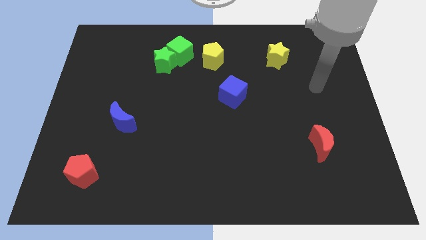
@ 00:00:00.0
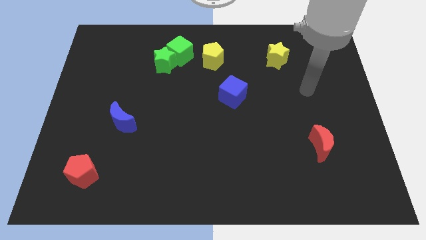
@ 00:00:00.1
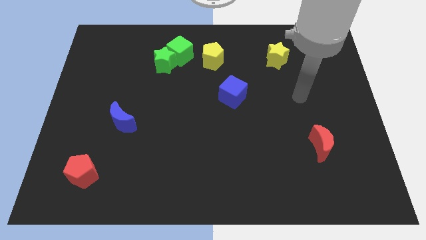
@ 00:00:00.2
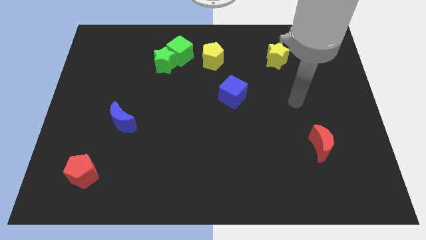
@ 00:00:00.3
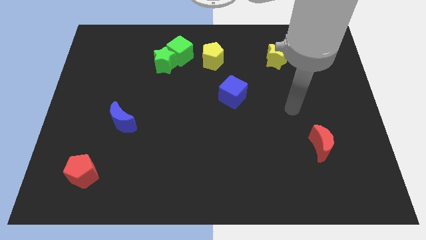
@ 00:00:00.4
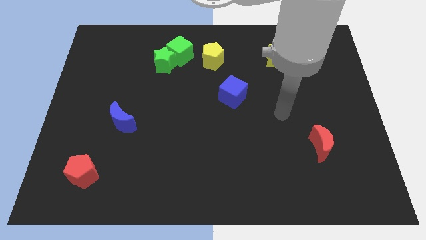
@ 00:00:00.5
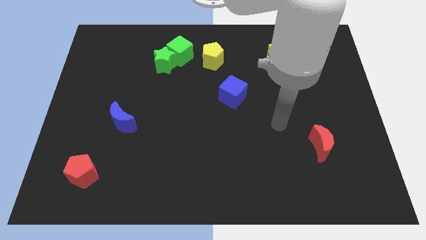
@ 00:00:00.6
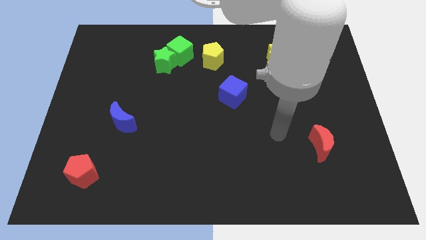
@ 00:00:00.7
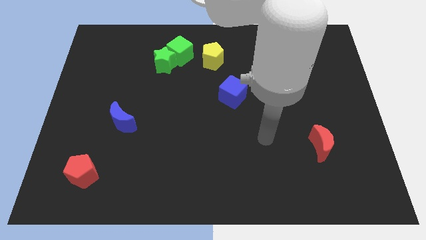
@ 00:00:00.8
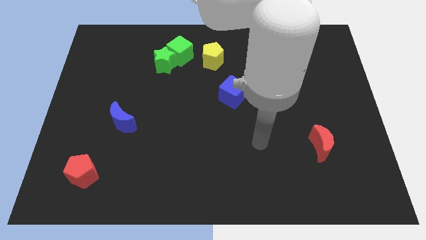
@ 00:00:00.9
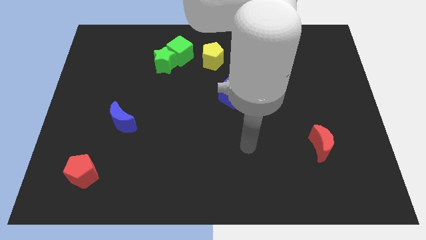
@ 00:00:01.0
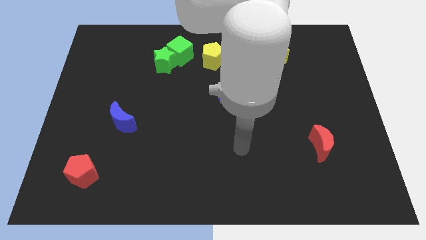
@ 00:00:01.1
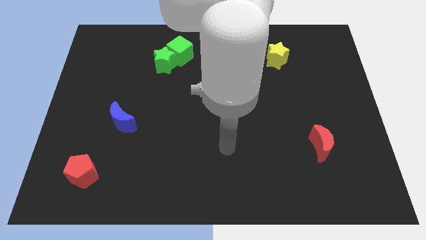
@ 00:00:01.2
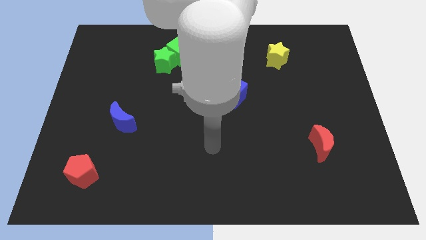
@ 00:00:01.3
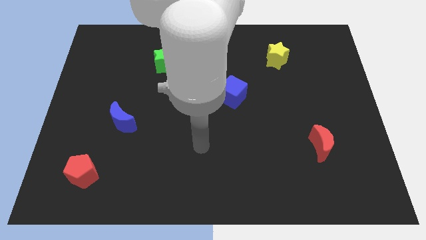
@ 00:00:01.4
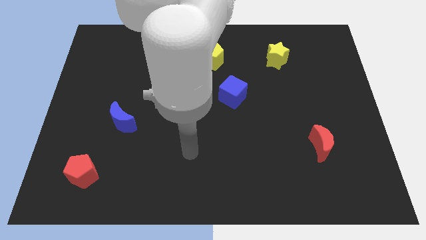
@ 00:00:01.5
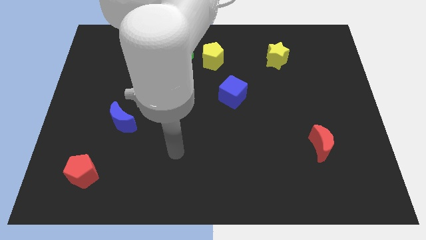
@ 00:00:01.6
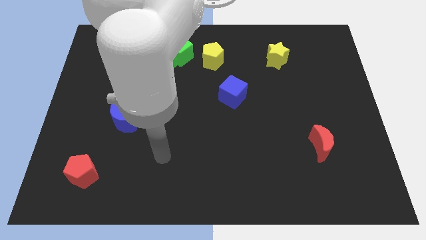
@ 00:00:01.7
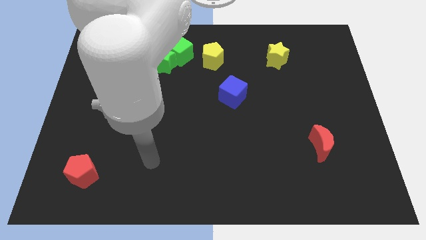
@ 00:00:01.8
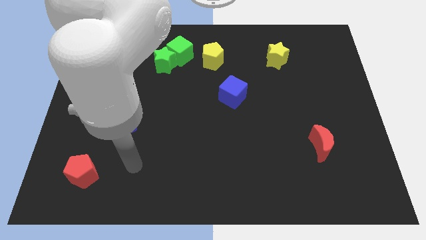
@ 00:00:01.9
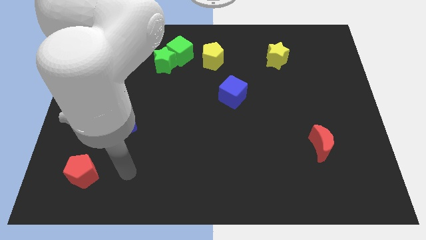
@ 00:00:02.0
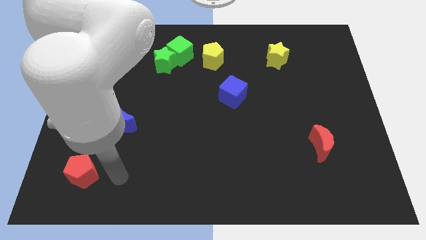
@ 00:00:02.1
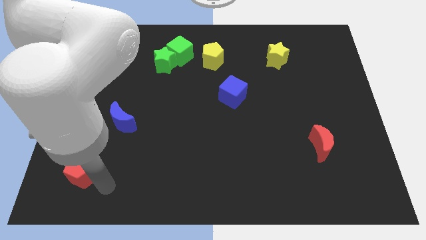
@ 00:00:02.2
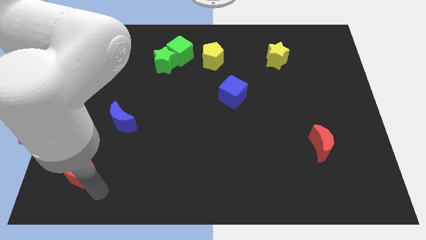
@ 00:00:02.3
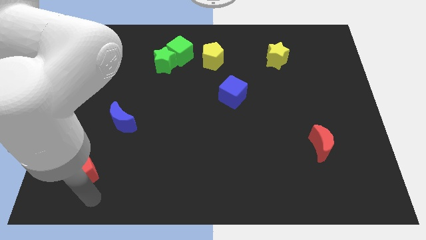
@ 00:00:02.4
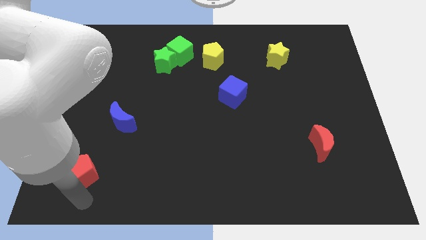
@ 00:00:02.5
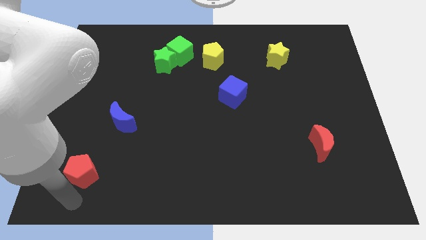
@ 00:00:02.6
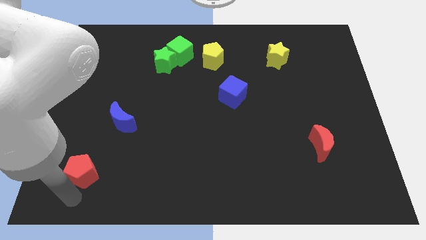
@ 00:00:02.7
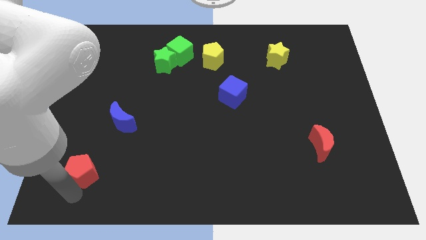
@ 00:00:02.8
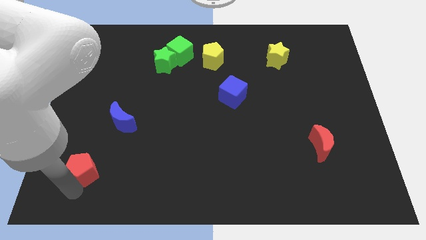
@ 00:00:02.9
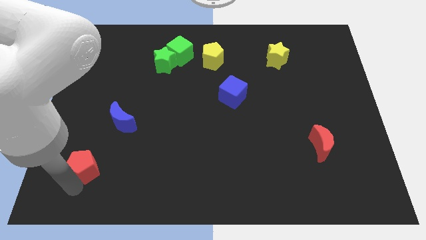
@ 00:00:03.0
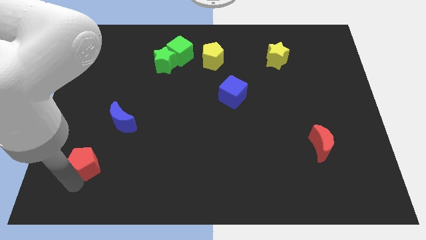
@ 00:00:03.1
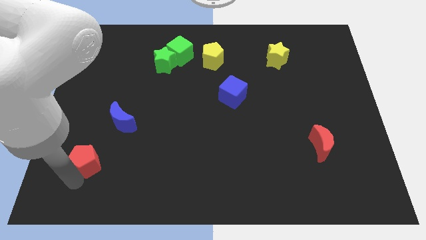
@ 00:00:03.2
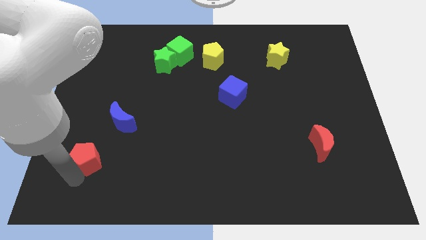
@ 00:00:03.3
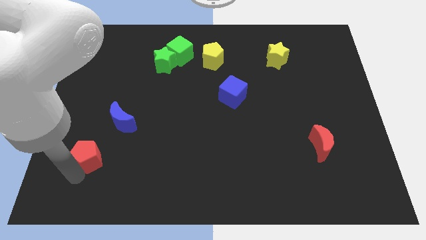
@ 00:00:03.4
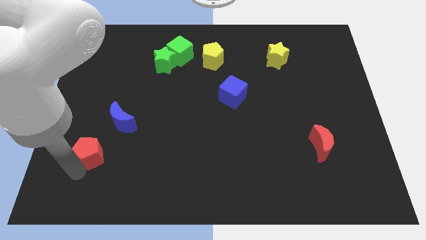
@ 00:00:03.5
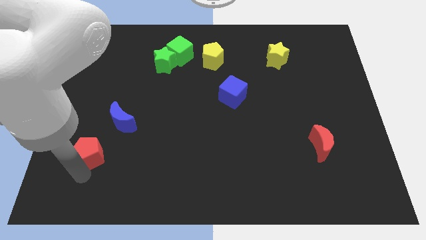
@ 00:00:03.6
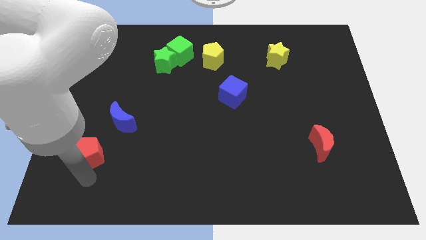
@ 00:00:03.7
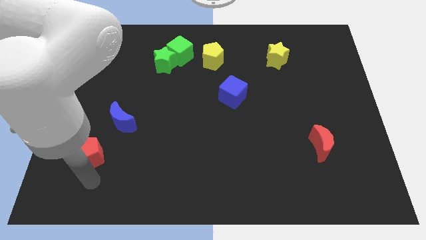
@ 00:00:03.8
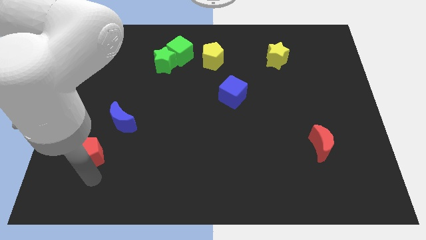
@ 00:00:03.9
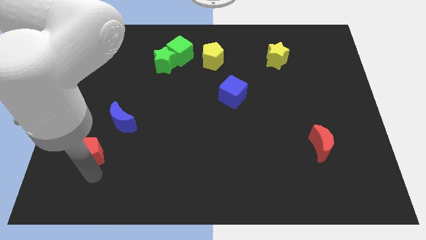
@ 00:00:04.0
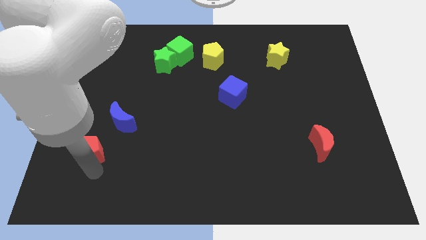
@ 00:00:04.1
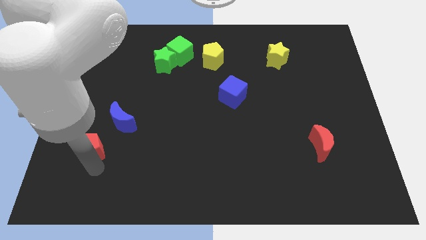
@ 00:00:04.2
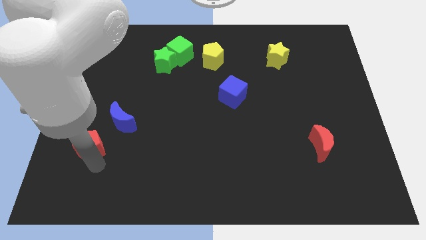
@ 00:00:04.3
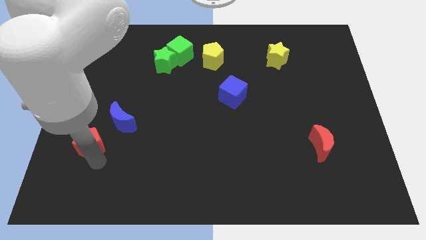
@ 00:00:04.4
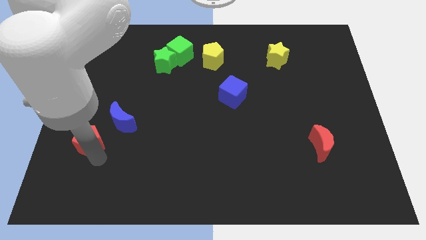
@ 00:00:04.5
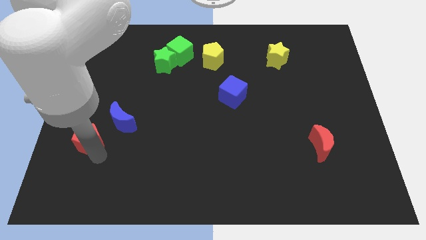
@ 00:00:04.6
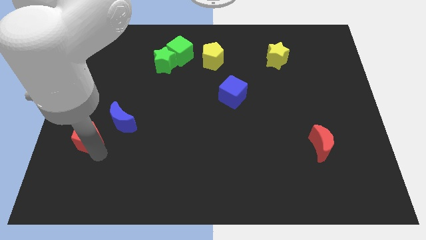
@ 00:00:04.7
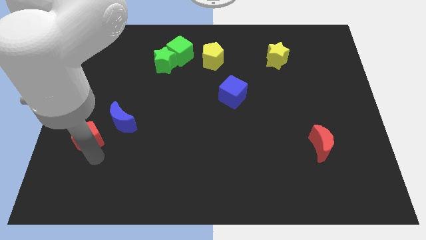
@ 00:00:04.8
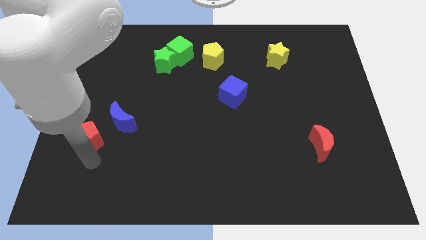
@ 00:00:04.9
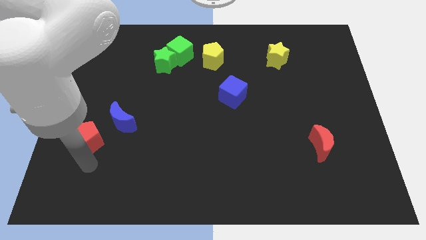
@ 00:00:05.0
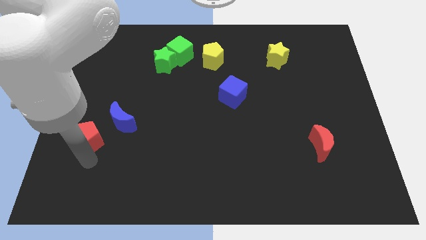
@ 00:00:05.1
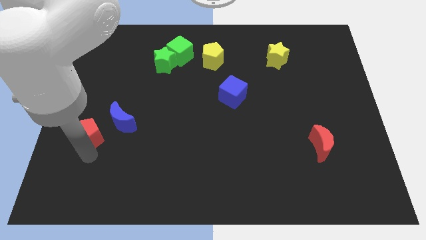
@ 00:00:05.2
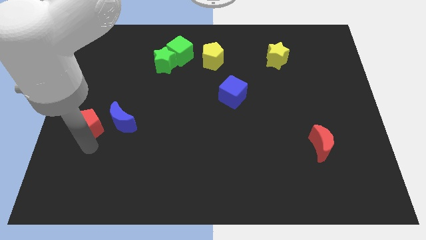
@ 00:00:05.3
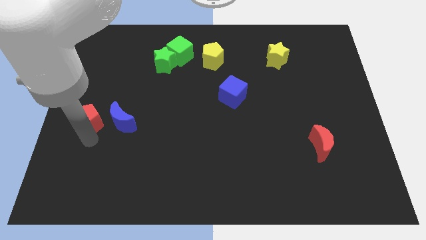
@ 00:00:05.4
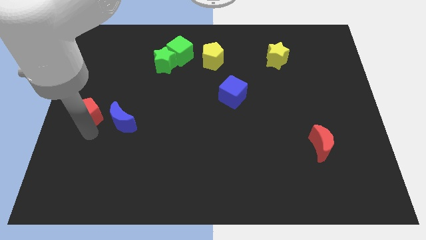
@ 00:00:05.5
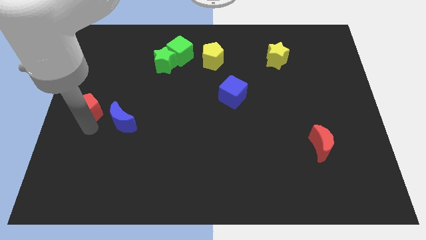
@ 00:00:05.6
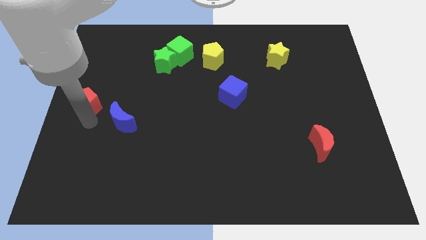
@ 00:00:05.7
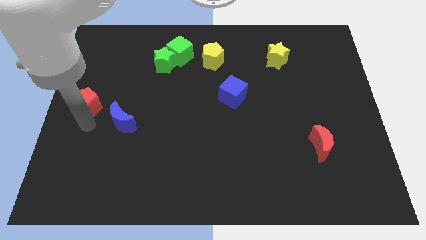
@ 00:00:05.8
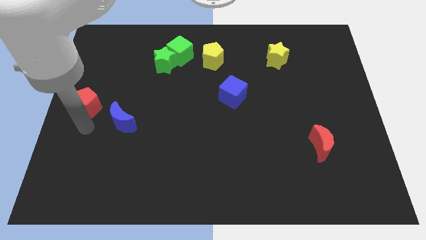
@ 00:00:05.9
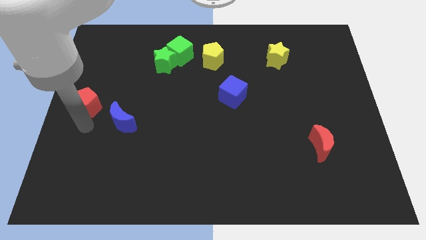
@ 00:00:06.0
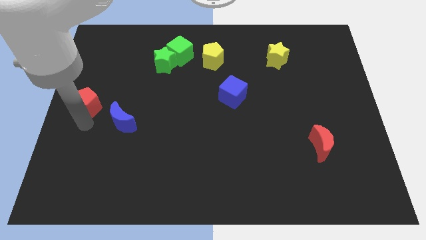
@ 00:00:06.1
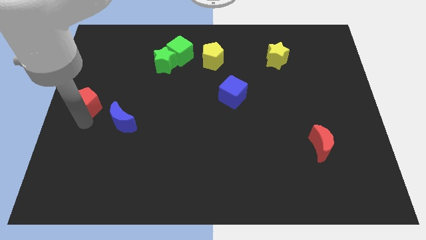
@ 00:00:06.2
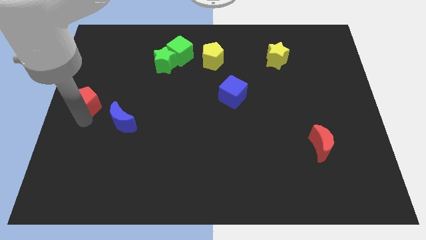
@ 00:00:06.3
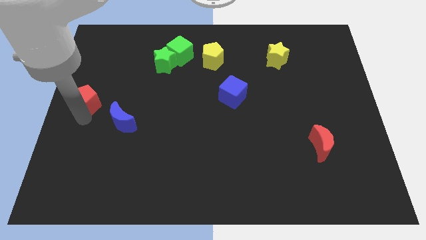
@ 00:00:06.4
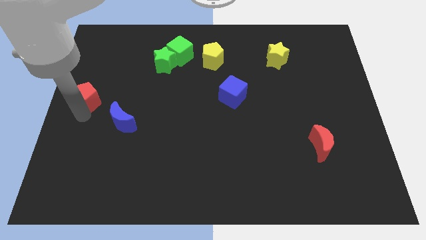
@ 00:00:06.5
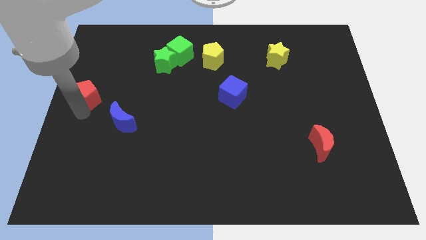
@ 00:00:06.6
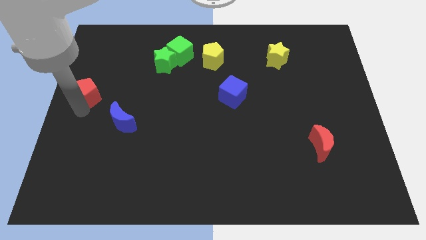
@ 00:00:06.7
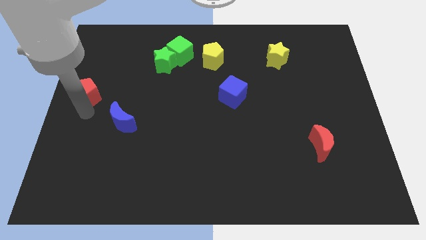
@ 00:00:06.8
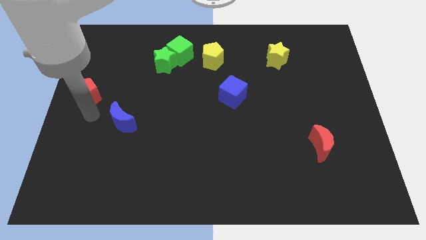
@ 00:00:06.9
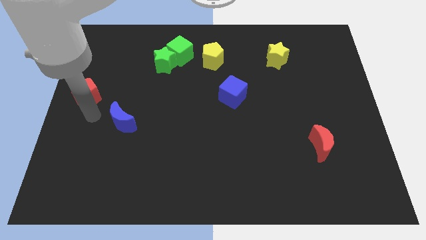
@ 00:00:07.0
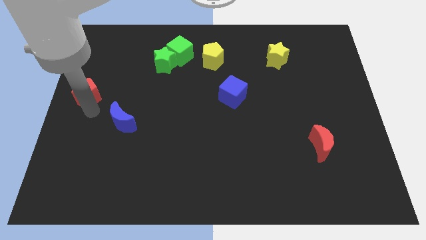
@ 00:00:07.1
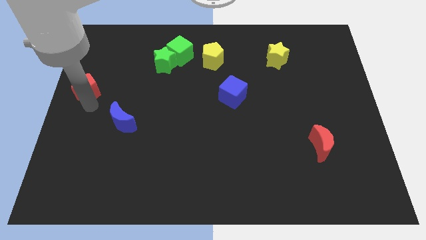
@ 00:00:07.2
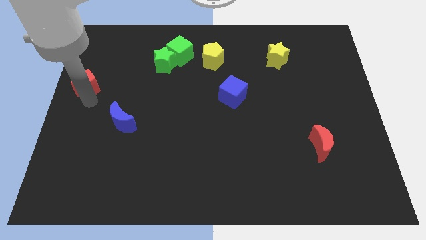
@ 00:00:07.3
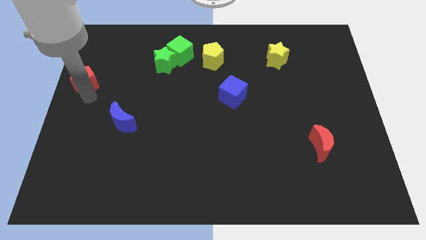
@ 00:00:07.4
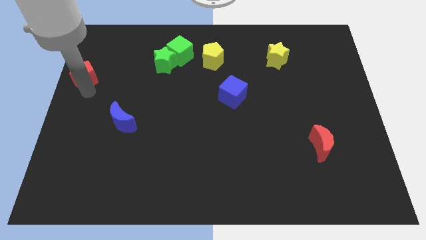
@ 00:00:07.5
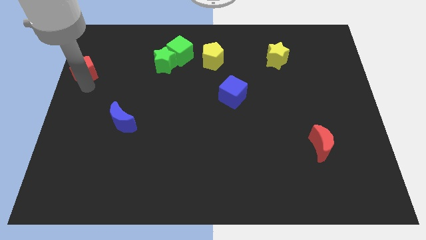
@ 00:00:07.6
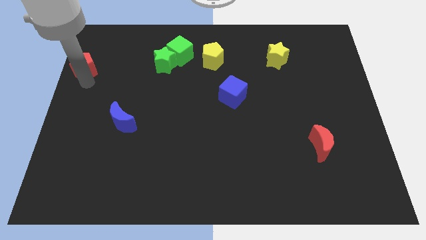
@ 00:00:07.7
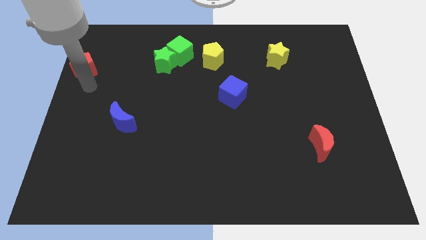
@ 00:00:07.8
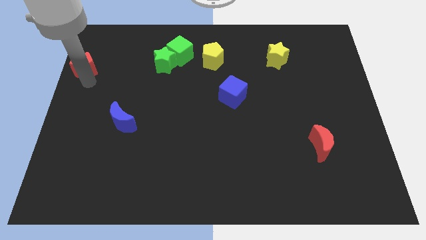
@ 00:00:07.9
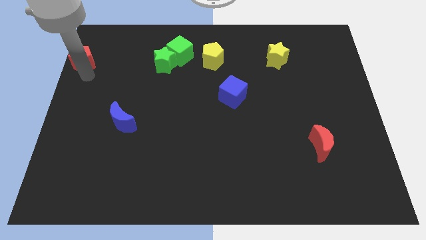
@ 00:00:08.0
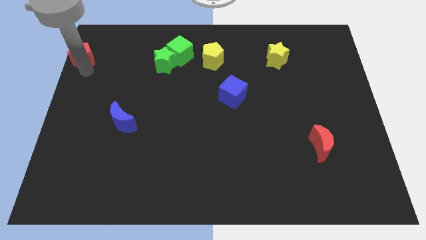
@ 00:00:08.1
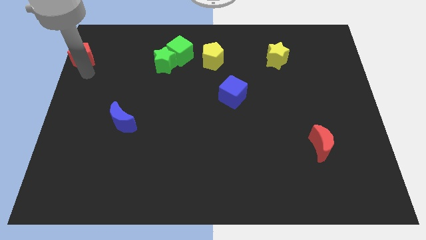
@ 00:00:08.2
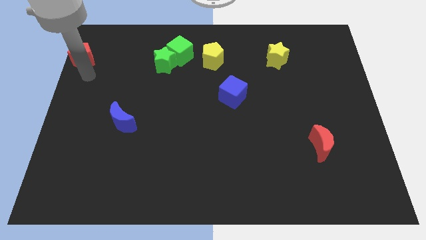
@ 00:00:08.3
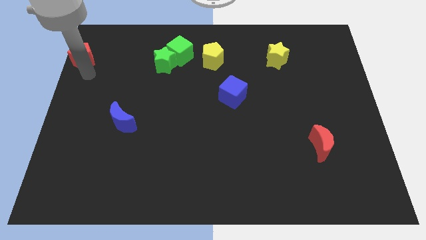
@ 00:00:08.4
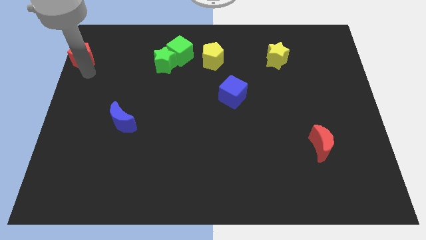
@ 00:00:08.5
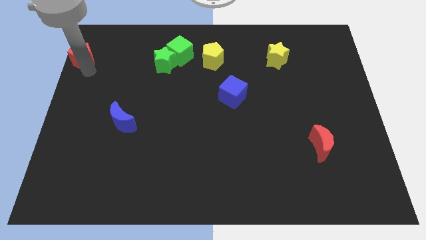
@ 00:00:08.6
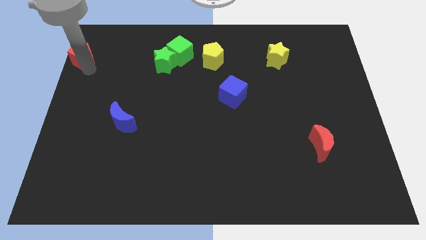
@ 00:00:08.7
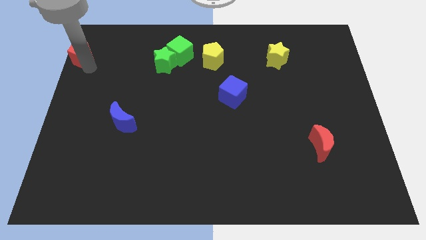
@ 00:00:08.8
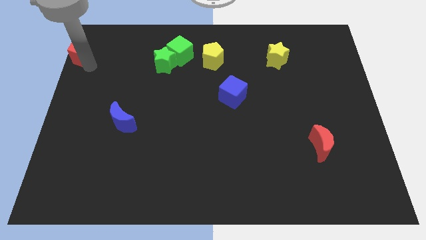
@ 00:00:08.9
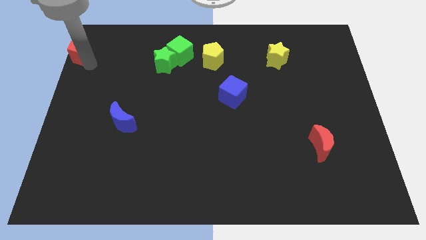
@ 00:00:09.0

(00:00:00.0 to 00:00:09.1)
put the red pentagon to the top left
